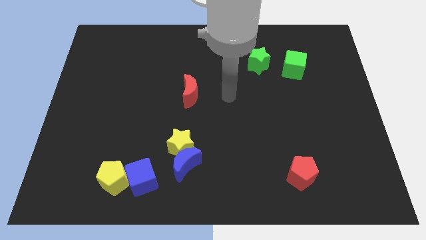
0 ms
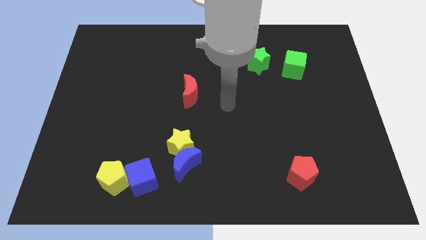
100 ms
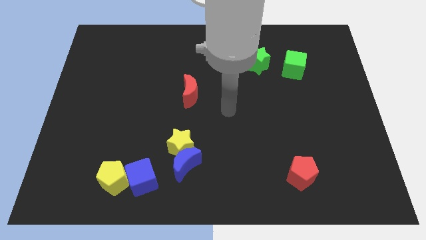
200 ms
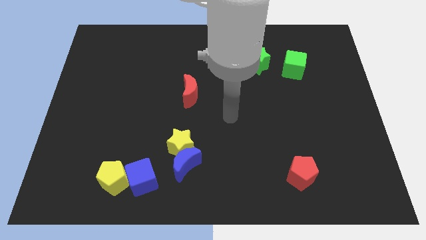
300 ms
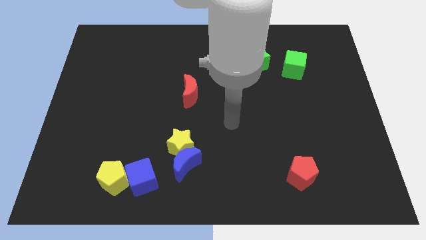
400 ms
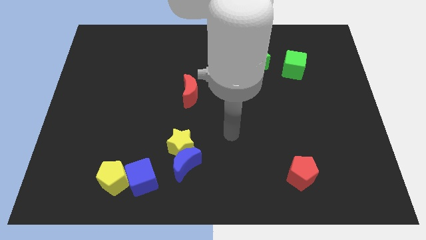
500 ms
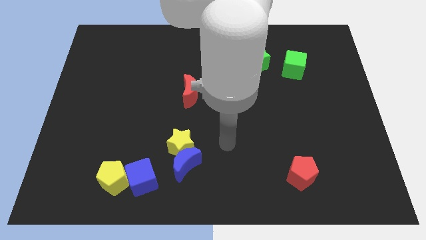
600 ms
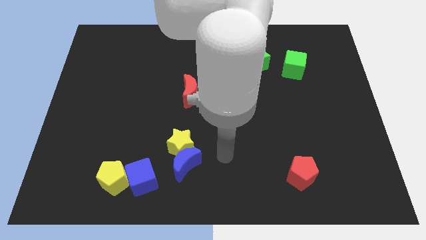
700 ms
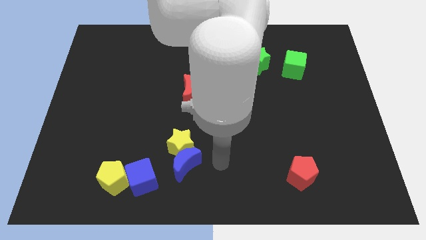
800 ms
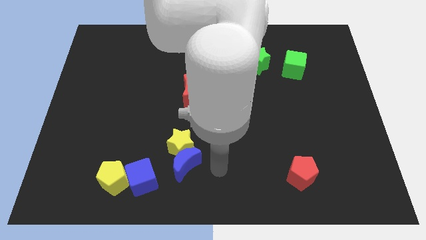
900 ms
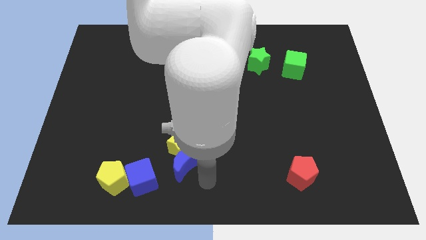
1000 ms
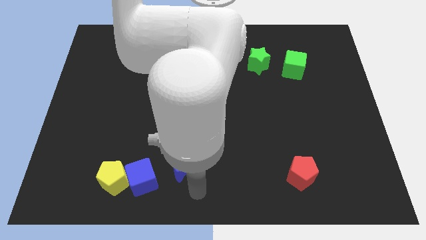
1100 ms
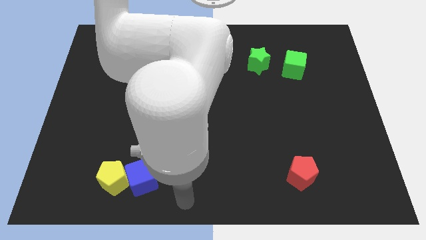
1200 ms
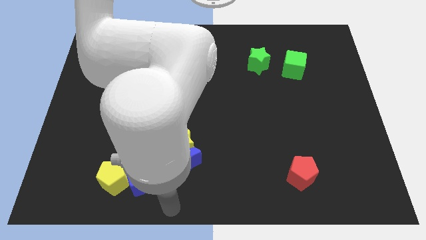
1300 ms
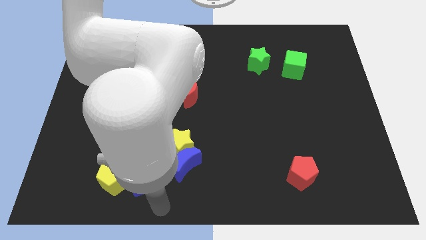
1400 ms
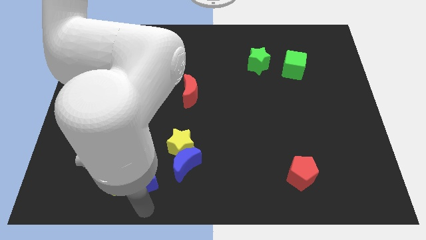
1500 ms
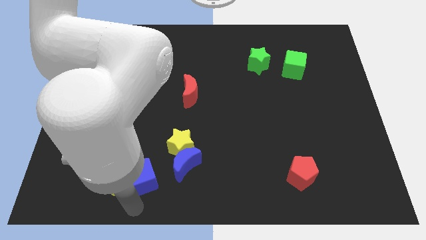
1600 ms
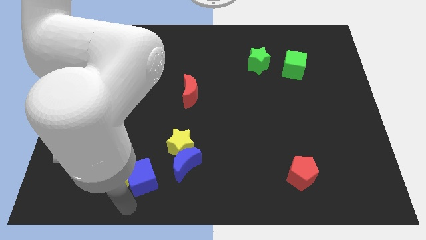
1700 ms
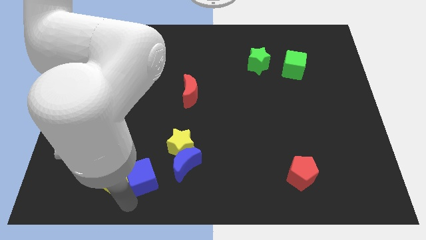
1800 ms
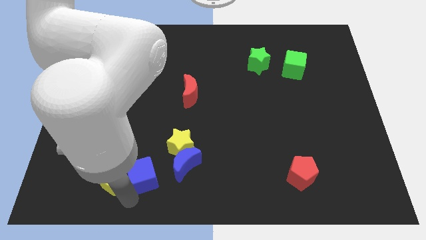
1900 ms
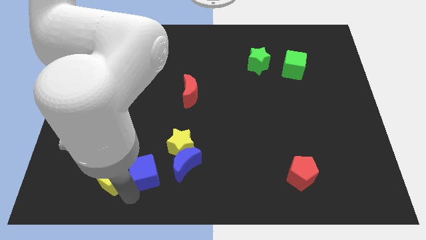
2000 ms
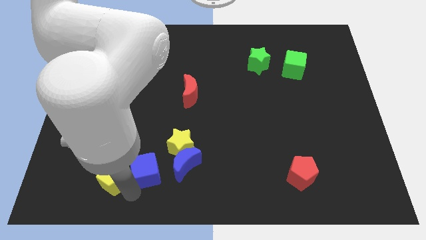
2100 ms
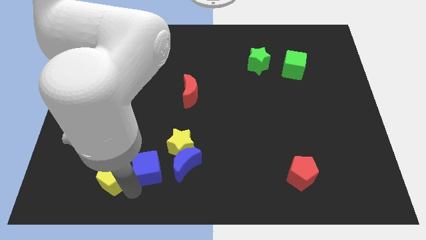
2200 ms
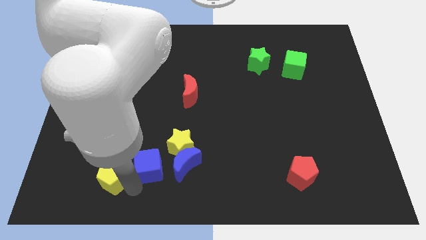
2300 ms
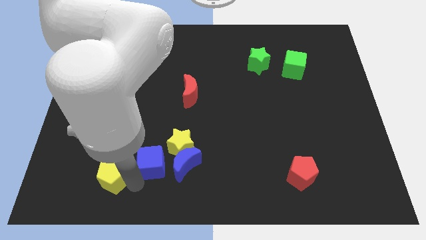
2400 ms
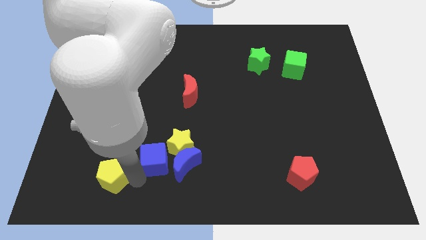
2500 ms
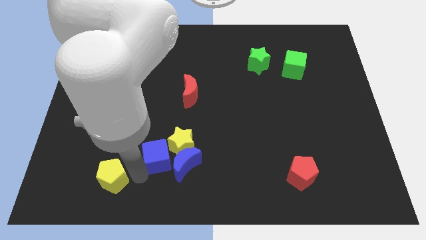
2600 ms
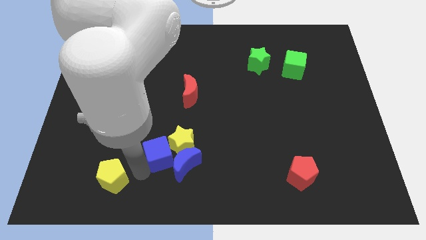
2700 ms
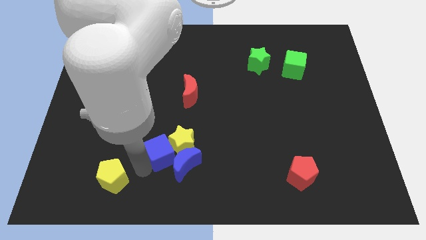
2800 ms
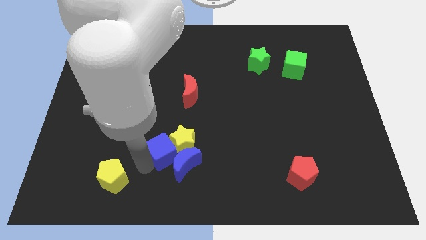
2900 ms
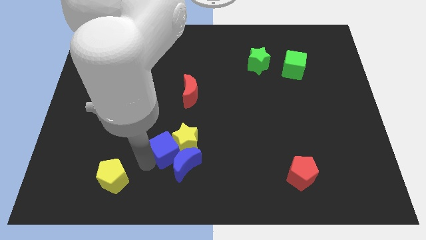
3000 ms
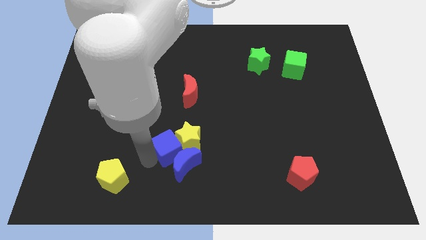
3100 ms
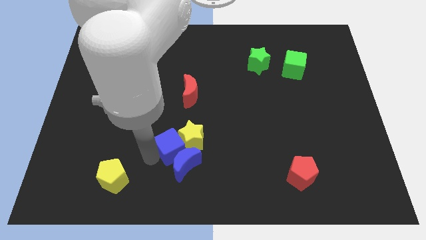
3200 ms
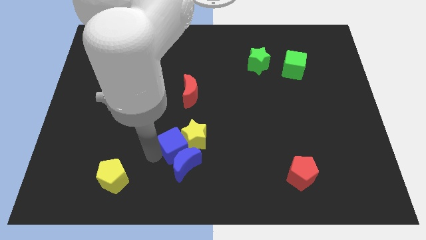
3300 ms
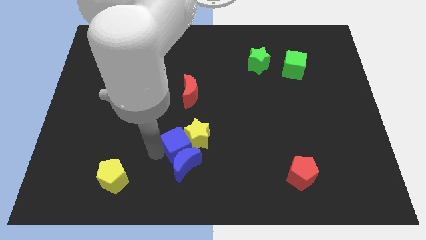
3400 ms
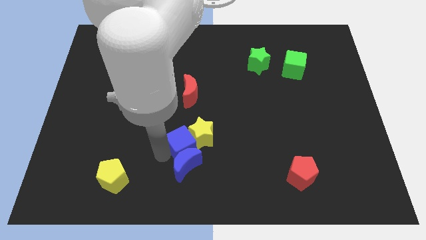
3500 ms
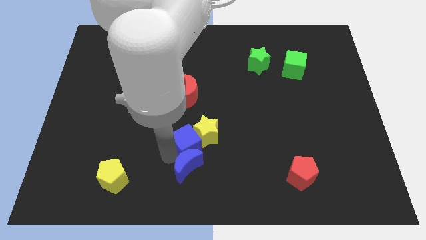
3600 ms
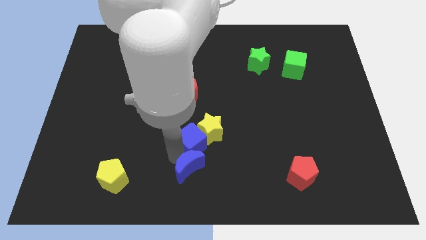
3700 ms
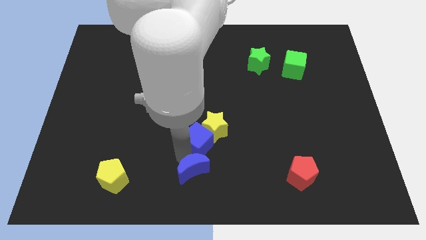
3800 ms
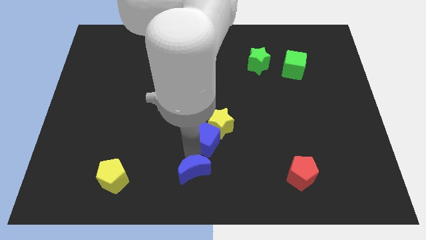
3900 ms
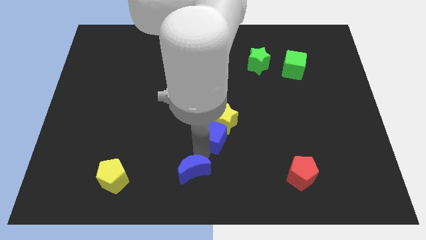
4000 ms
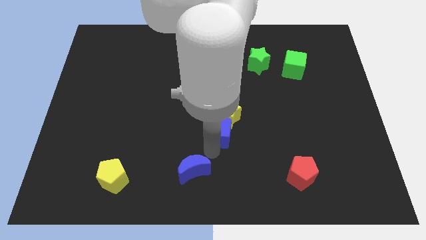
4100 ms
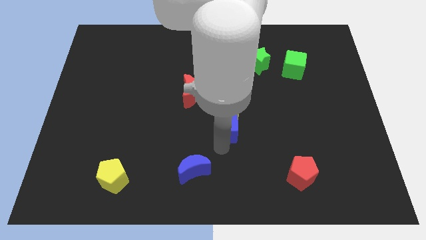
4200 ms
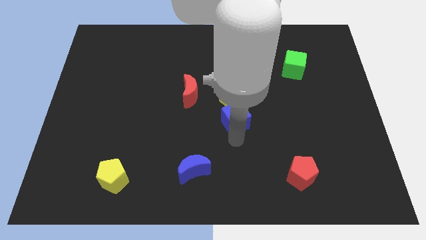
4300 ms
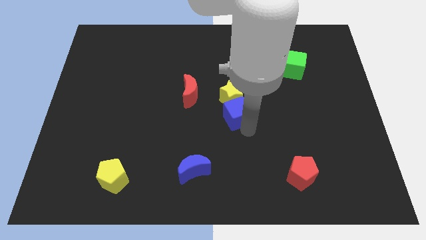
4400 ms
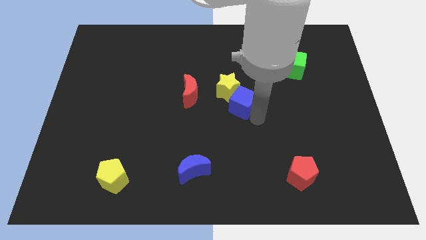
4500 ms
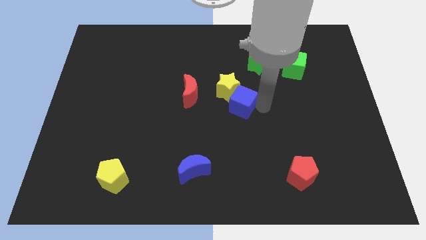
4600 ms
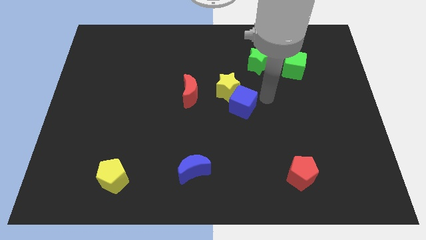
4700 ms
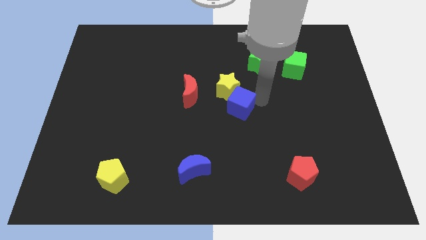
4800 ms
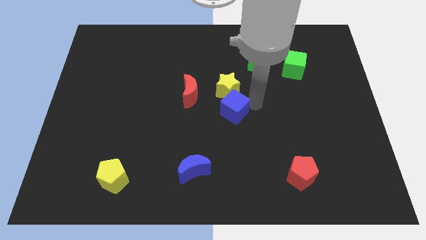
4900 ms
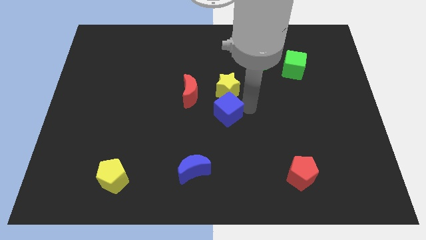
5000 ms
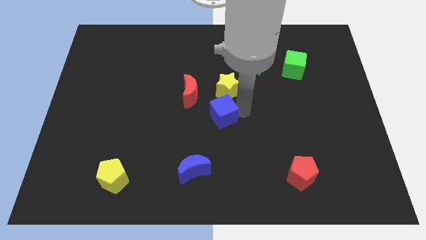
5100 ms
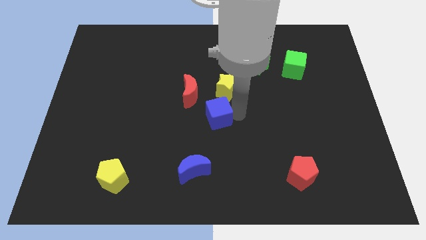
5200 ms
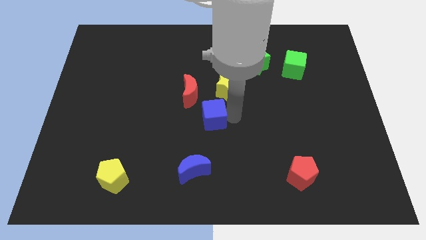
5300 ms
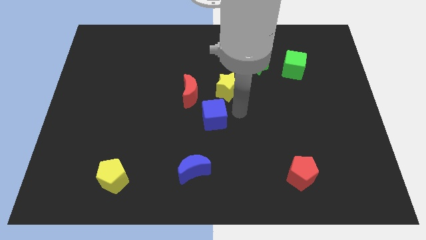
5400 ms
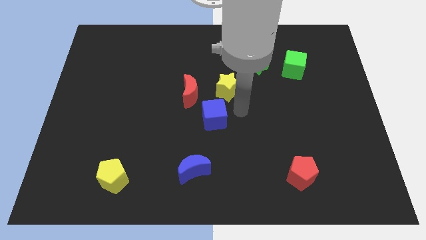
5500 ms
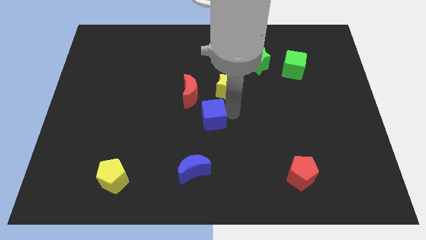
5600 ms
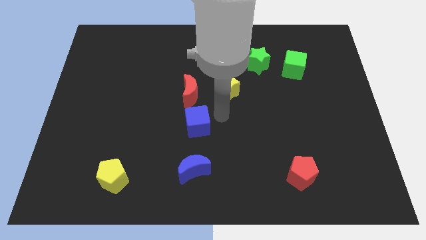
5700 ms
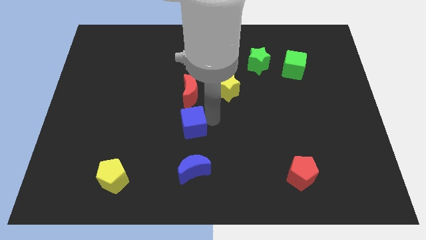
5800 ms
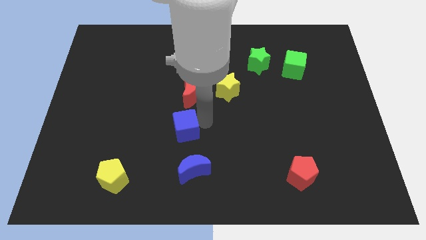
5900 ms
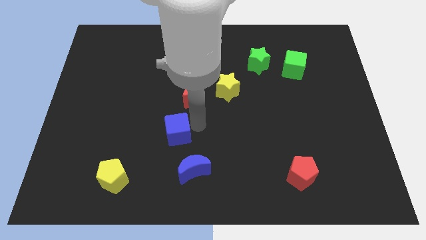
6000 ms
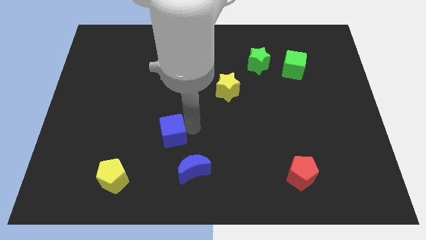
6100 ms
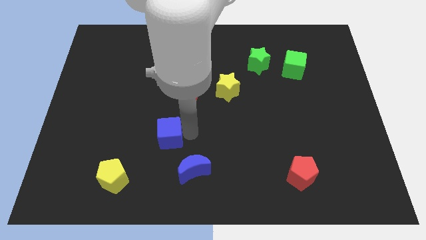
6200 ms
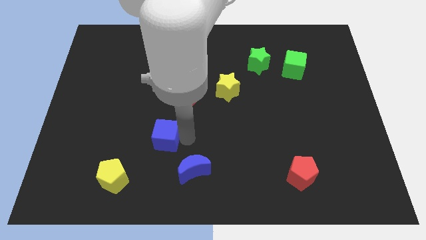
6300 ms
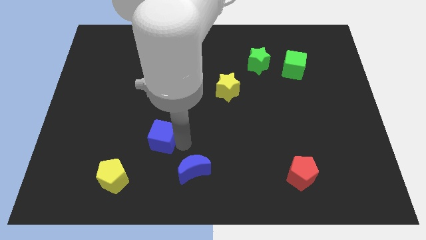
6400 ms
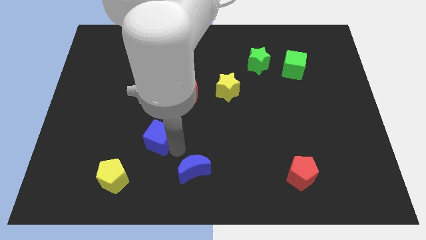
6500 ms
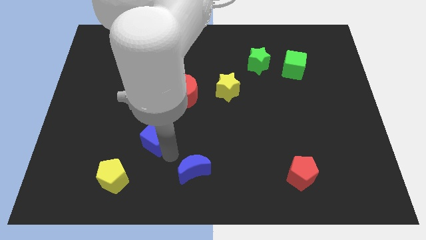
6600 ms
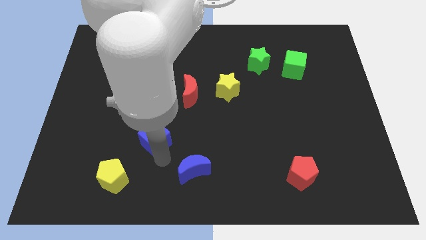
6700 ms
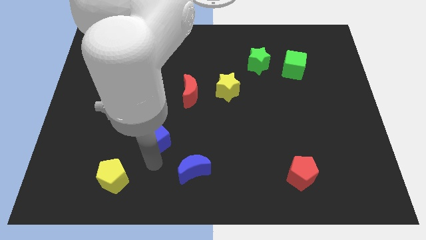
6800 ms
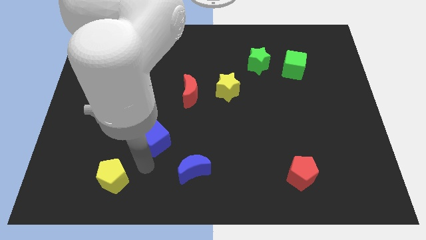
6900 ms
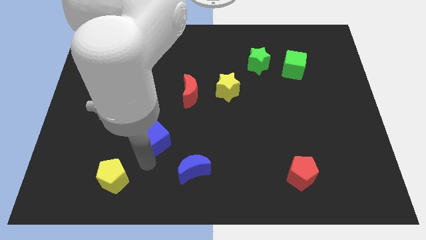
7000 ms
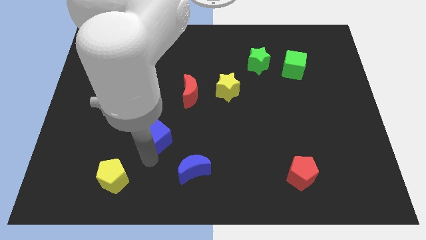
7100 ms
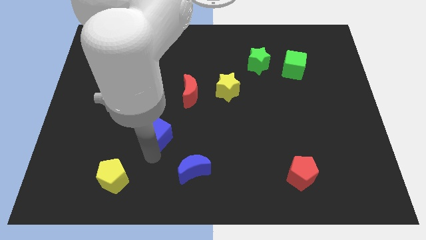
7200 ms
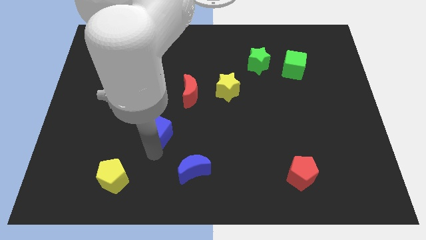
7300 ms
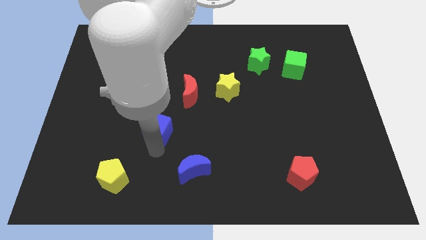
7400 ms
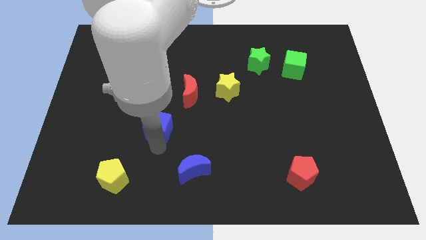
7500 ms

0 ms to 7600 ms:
push the blue cube to the bottom left of the red moon
